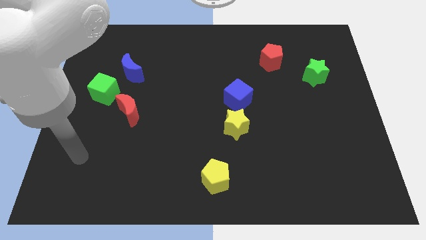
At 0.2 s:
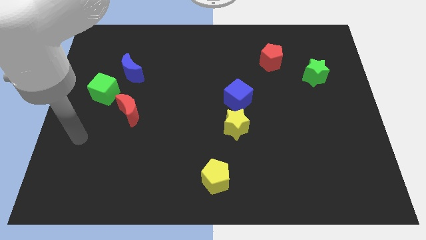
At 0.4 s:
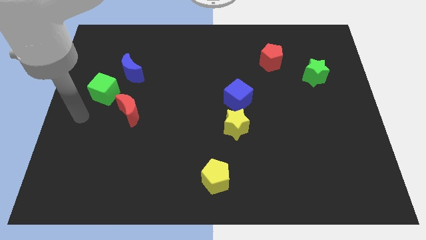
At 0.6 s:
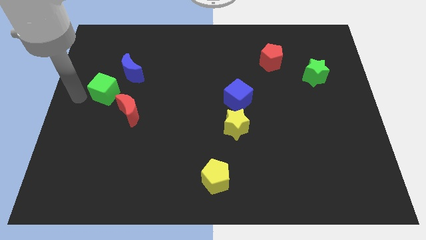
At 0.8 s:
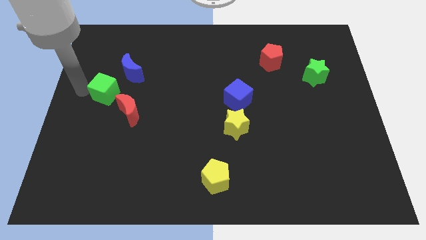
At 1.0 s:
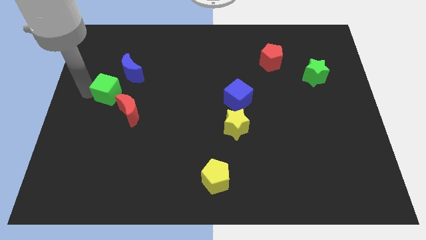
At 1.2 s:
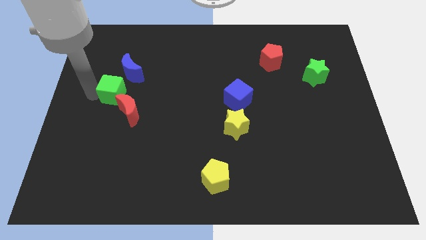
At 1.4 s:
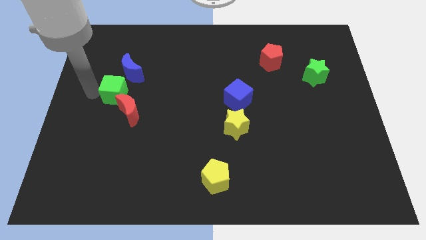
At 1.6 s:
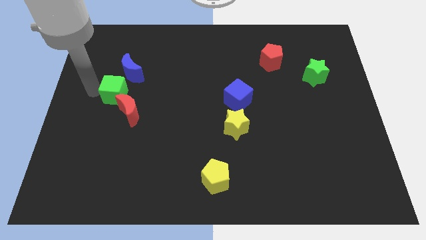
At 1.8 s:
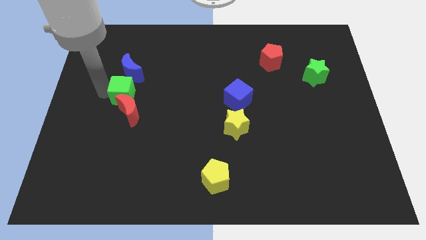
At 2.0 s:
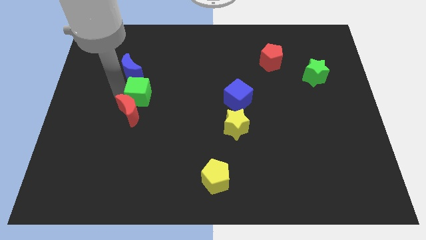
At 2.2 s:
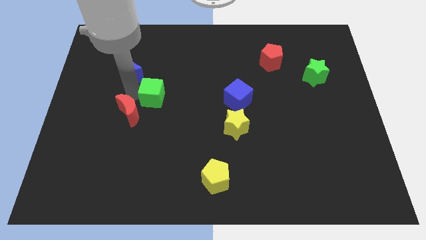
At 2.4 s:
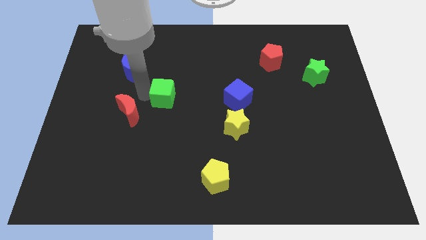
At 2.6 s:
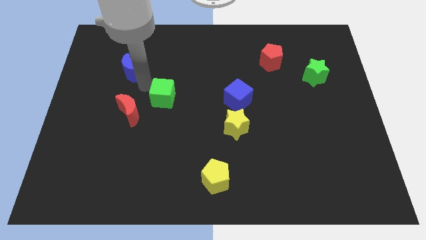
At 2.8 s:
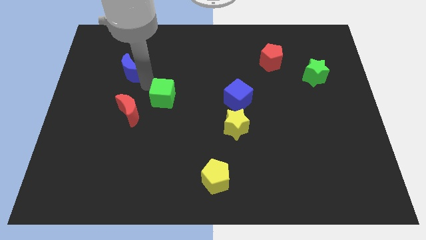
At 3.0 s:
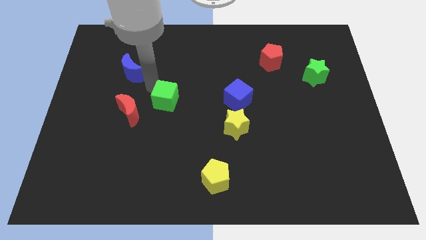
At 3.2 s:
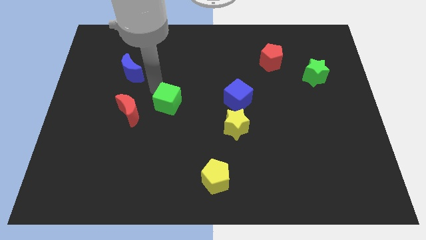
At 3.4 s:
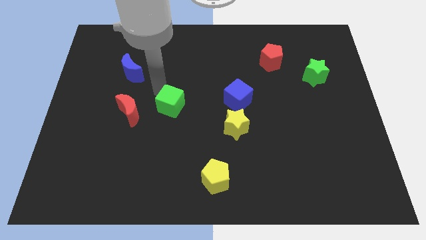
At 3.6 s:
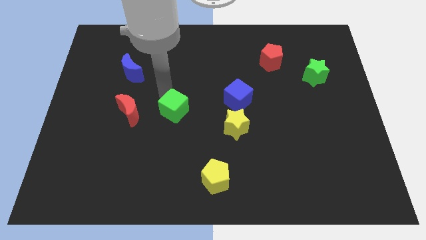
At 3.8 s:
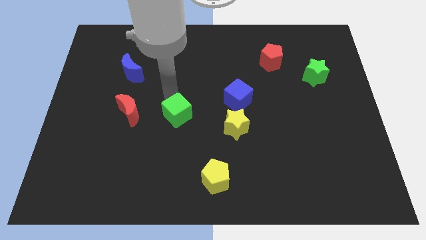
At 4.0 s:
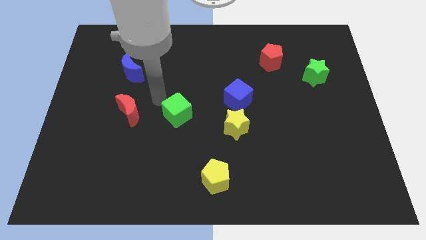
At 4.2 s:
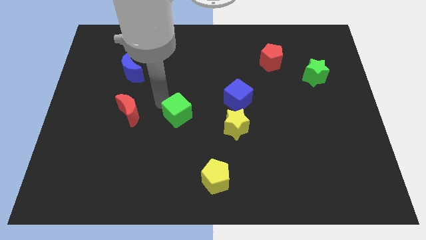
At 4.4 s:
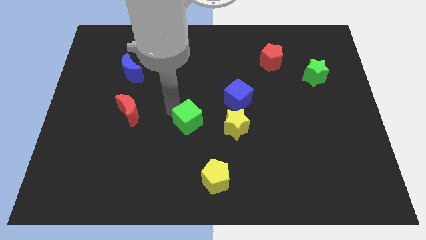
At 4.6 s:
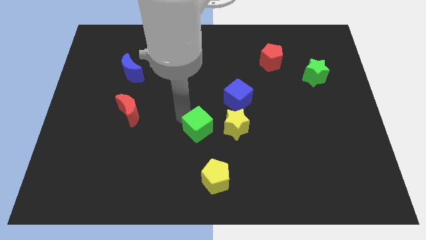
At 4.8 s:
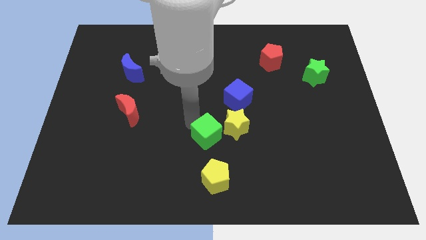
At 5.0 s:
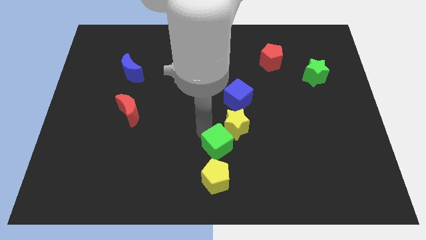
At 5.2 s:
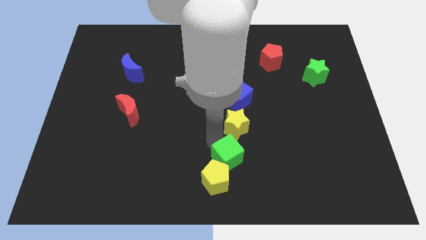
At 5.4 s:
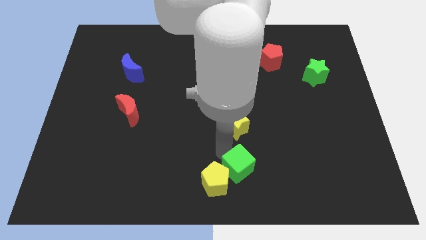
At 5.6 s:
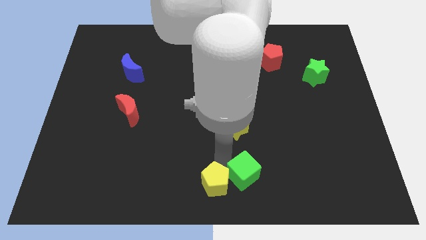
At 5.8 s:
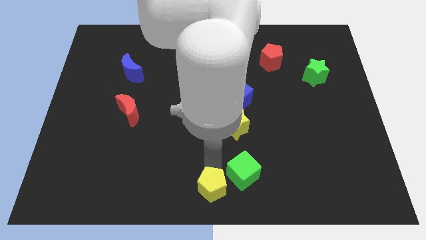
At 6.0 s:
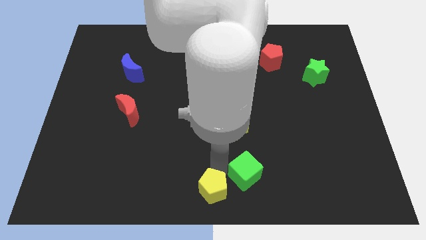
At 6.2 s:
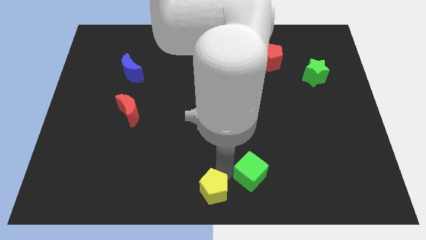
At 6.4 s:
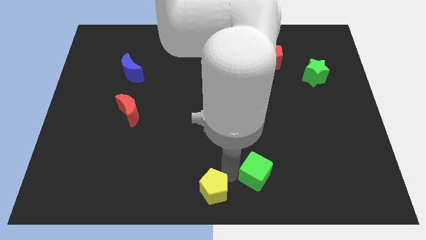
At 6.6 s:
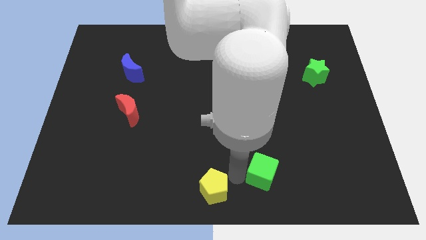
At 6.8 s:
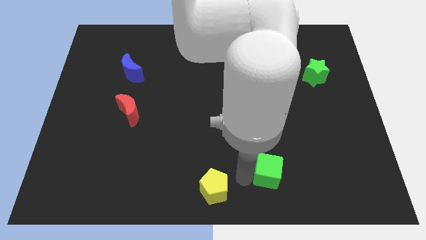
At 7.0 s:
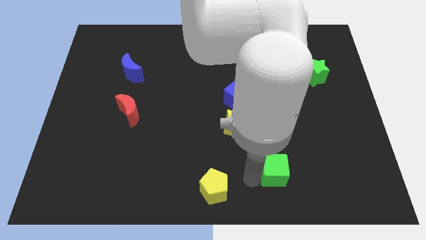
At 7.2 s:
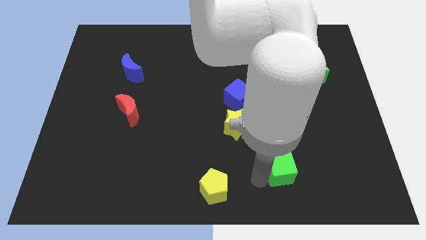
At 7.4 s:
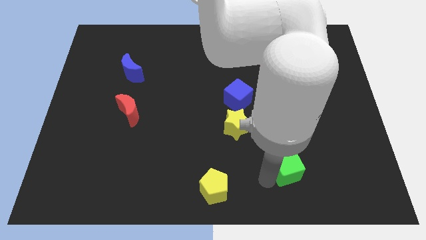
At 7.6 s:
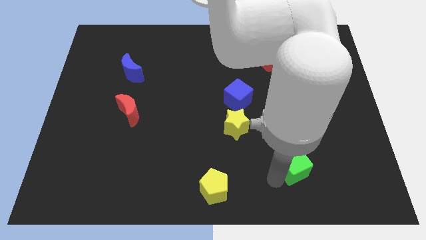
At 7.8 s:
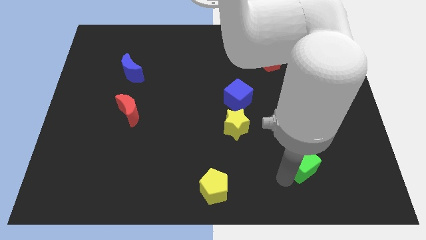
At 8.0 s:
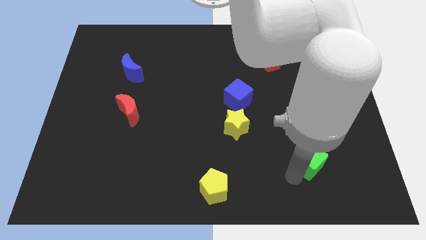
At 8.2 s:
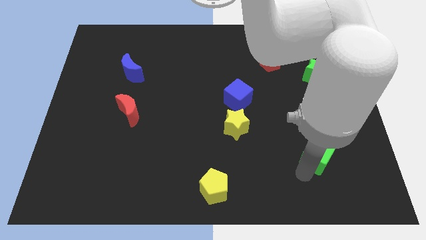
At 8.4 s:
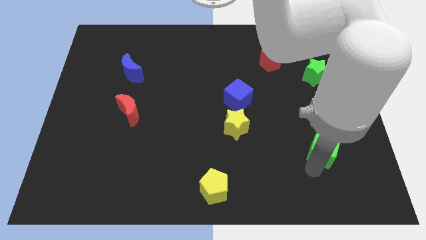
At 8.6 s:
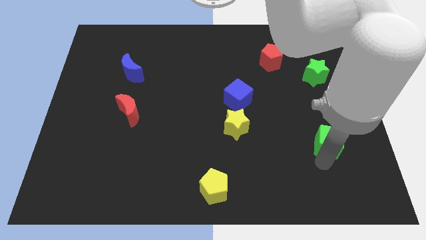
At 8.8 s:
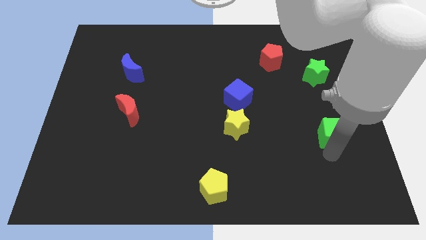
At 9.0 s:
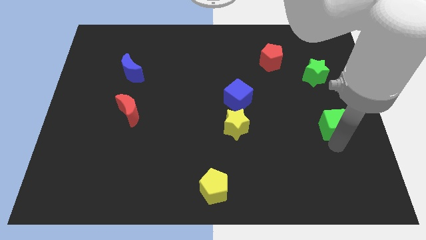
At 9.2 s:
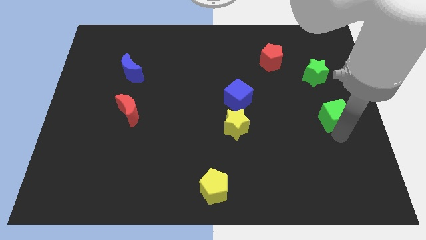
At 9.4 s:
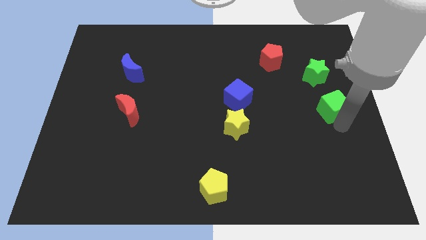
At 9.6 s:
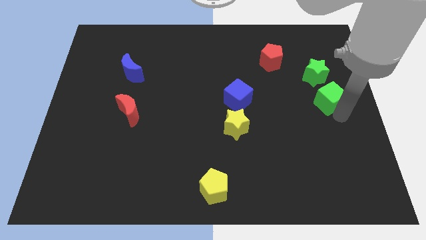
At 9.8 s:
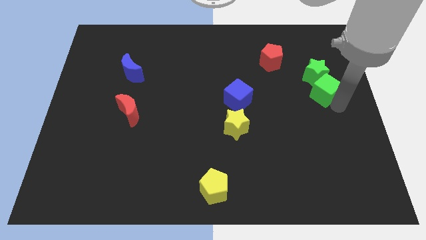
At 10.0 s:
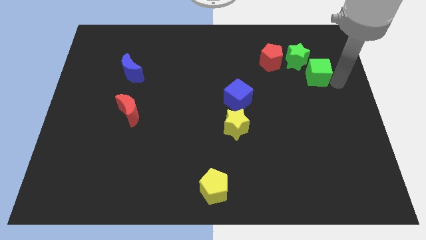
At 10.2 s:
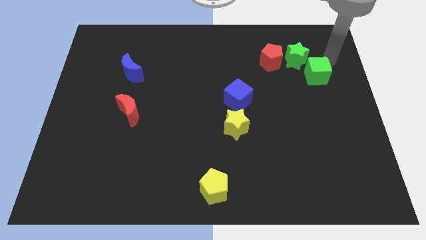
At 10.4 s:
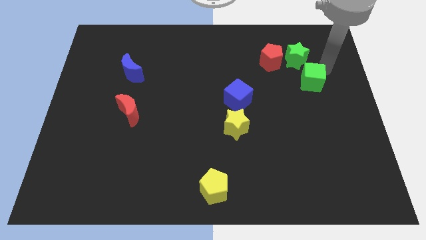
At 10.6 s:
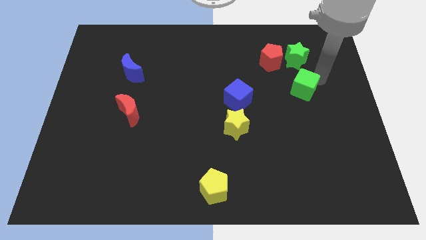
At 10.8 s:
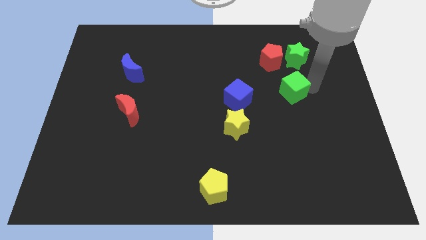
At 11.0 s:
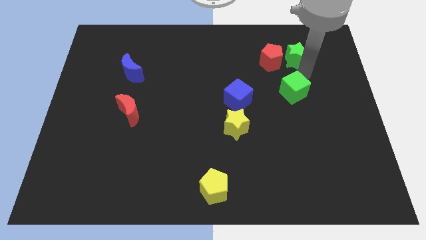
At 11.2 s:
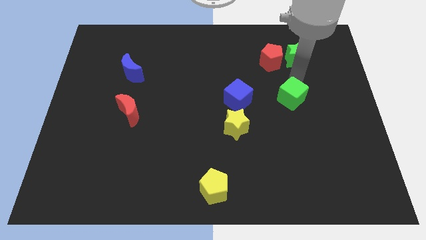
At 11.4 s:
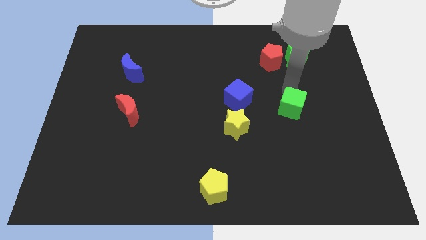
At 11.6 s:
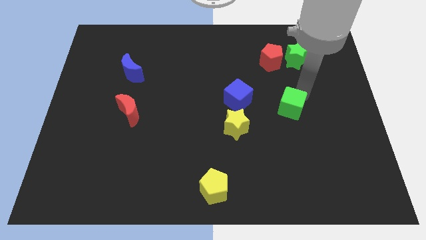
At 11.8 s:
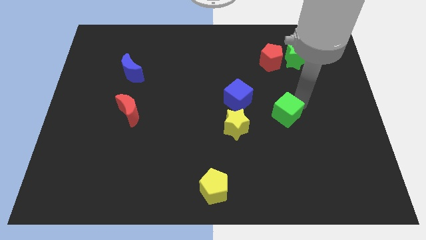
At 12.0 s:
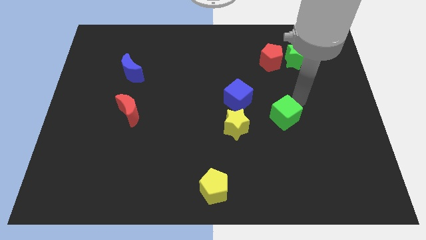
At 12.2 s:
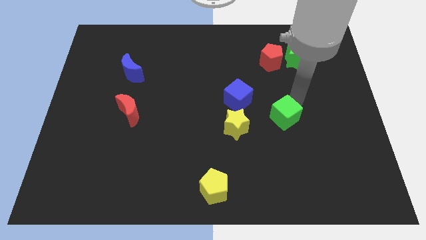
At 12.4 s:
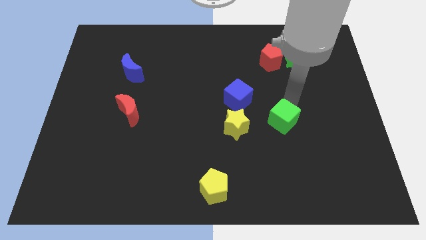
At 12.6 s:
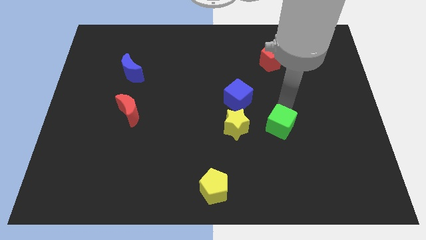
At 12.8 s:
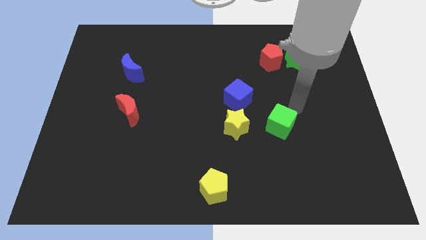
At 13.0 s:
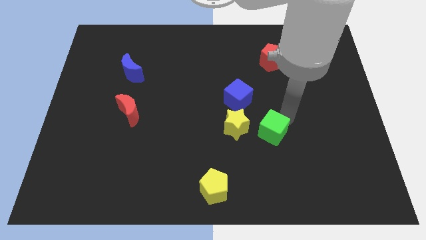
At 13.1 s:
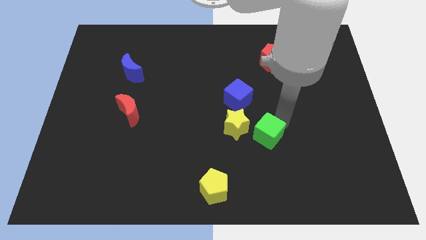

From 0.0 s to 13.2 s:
slide the green cube to the bottom right side of the yellow star
